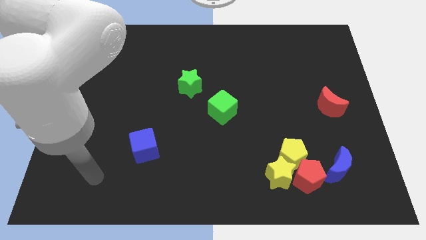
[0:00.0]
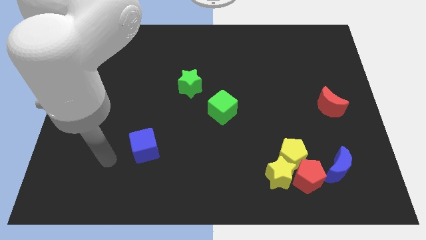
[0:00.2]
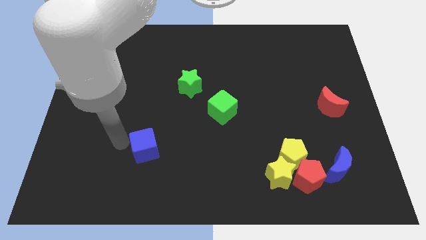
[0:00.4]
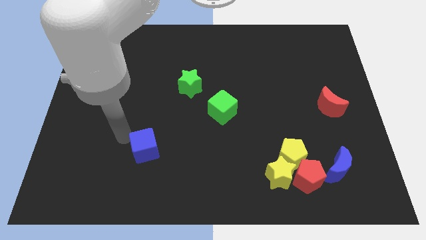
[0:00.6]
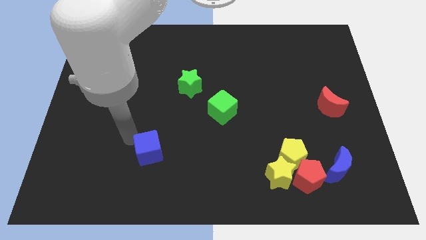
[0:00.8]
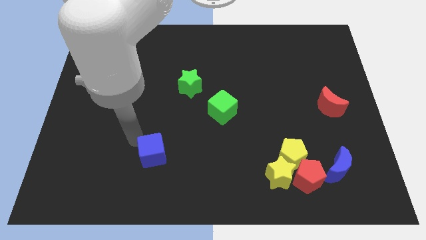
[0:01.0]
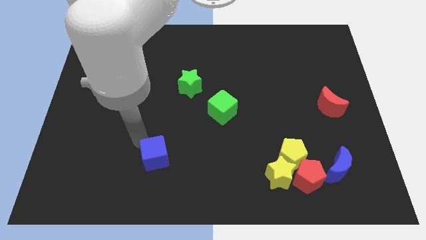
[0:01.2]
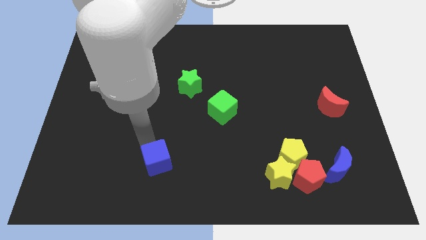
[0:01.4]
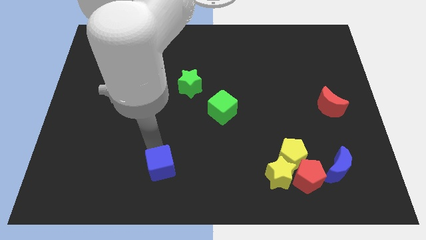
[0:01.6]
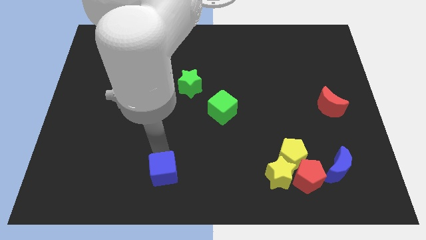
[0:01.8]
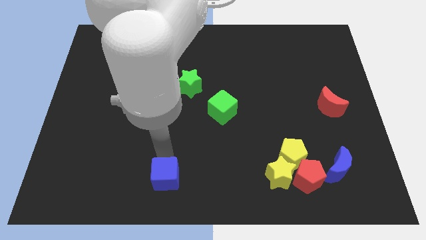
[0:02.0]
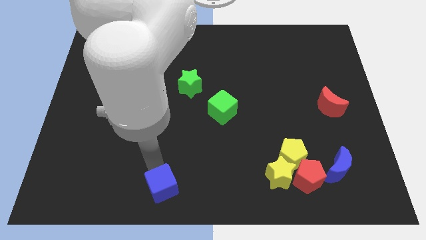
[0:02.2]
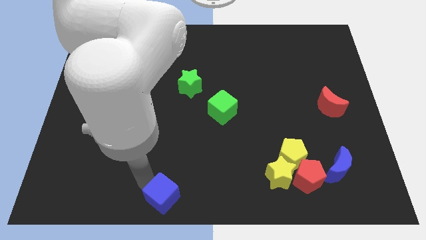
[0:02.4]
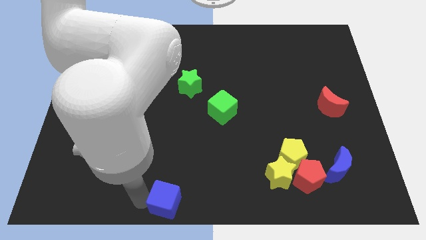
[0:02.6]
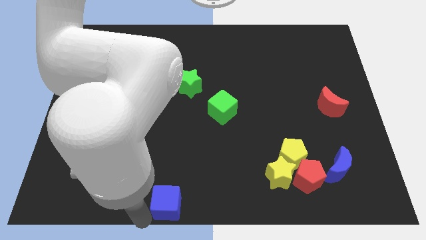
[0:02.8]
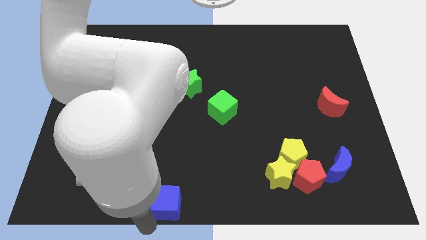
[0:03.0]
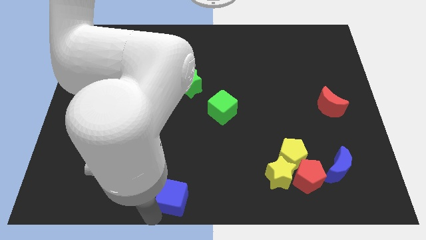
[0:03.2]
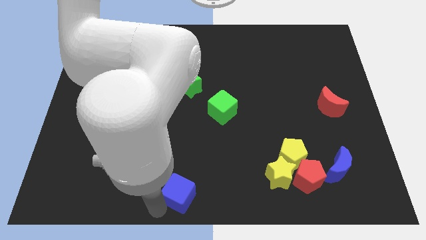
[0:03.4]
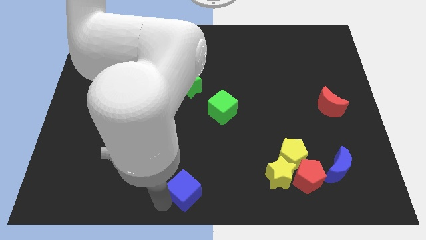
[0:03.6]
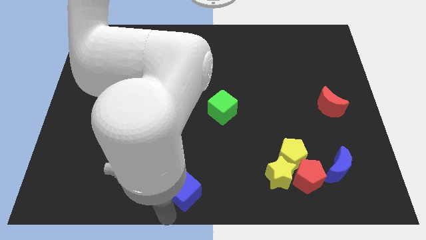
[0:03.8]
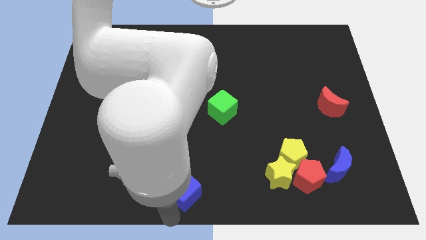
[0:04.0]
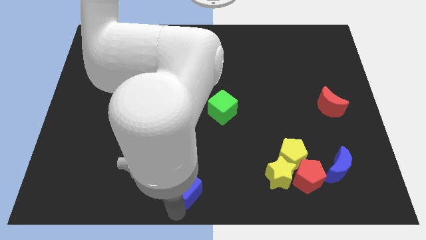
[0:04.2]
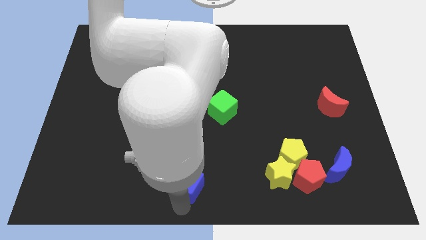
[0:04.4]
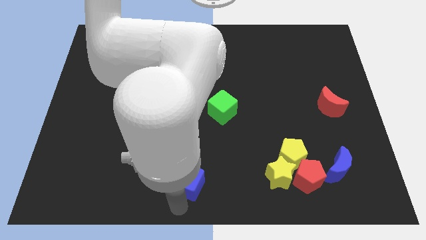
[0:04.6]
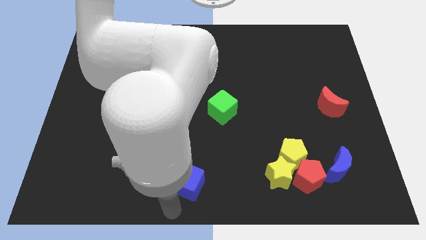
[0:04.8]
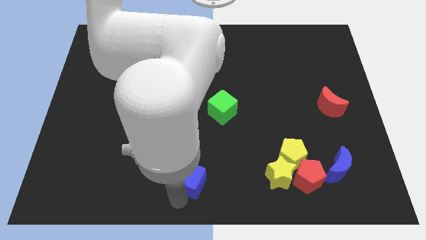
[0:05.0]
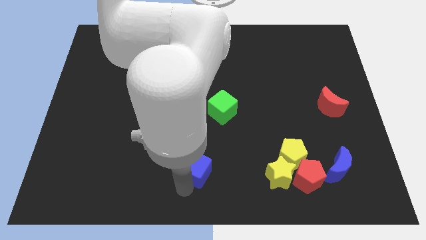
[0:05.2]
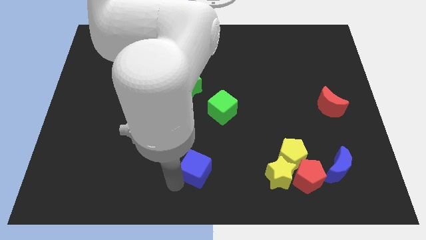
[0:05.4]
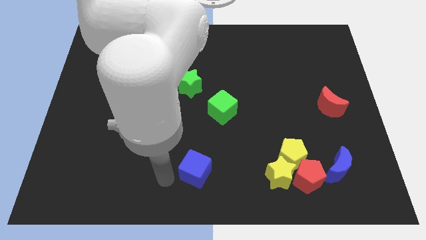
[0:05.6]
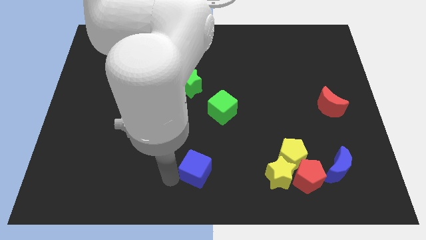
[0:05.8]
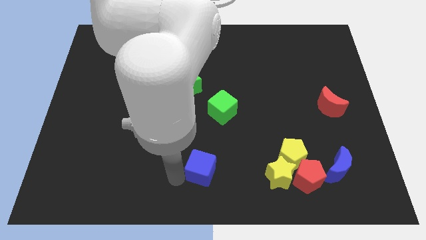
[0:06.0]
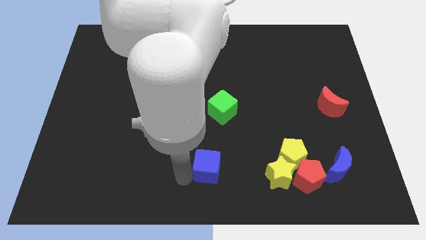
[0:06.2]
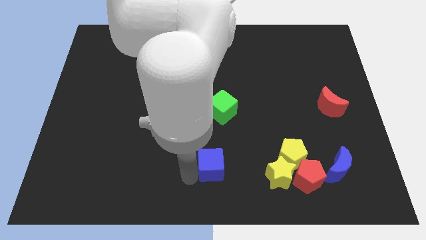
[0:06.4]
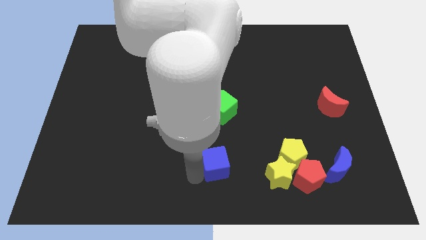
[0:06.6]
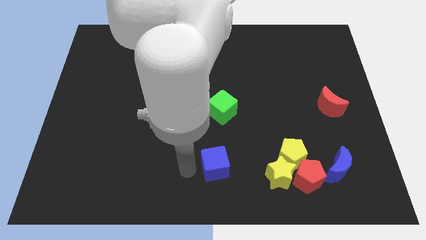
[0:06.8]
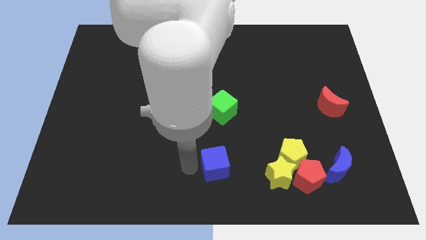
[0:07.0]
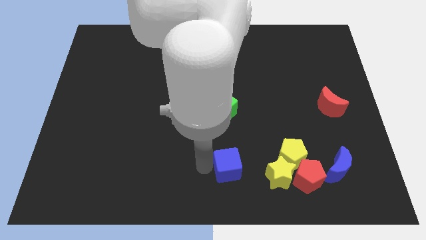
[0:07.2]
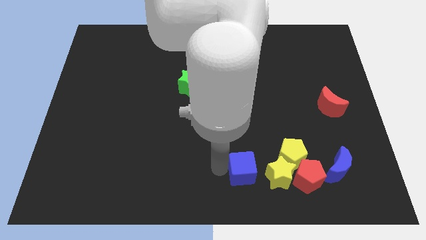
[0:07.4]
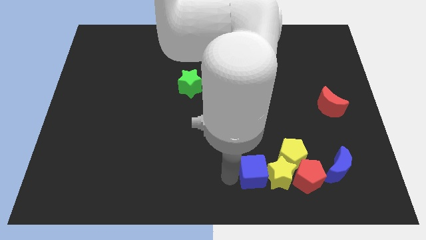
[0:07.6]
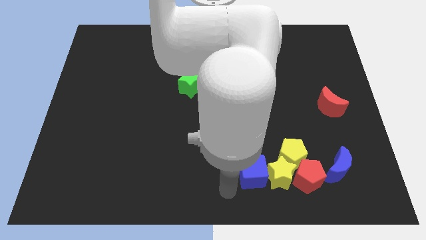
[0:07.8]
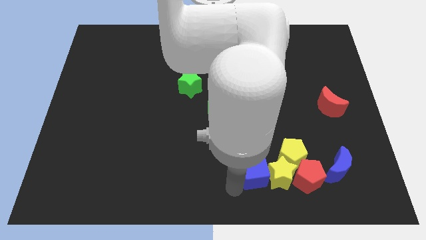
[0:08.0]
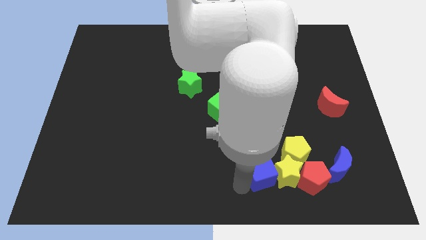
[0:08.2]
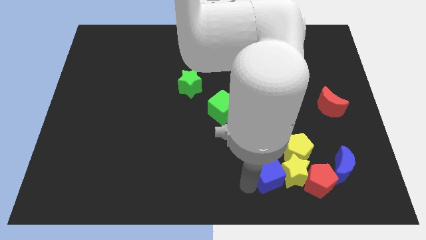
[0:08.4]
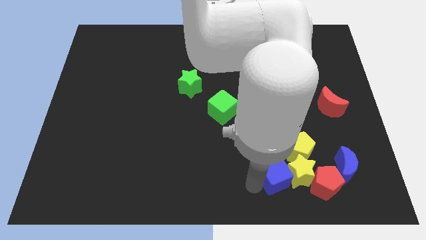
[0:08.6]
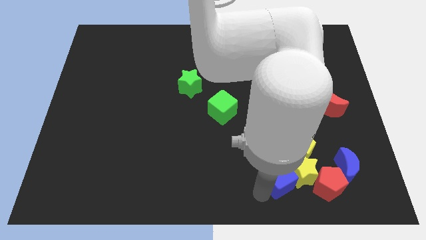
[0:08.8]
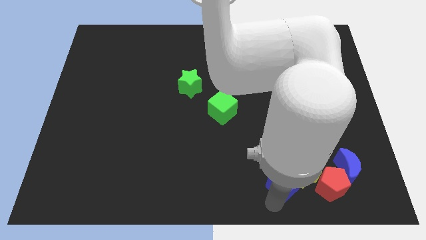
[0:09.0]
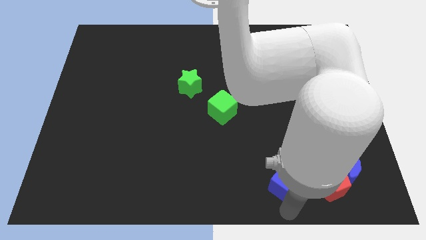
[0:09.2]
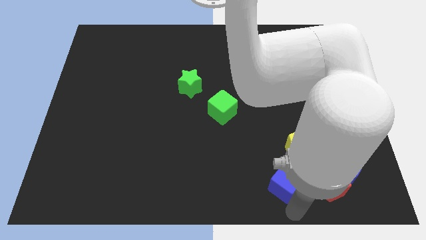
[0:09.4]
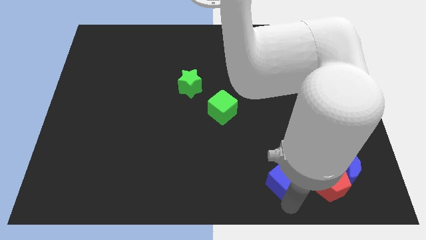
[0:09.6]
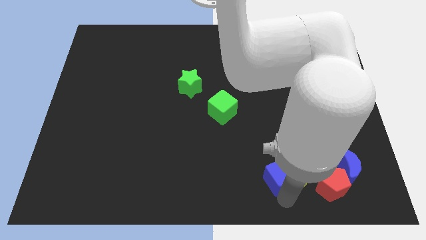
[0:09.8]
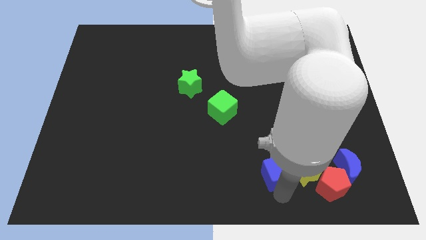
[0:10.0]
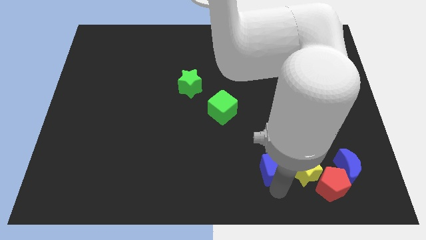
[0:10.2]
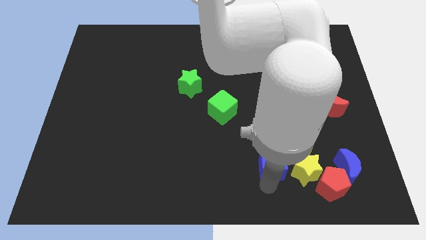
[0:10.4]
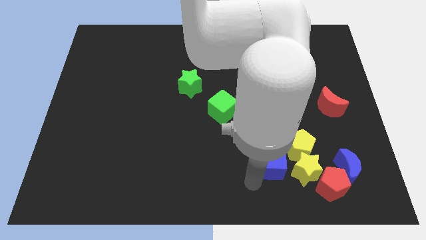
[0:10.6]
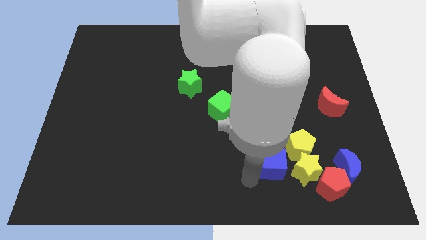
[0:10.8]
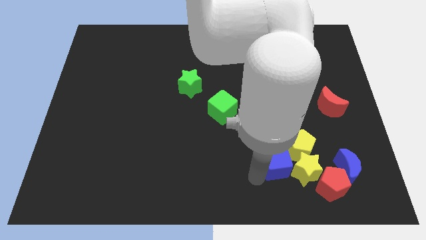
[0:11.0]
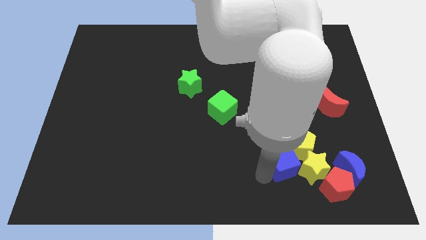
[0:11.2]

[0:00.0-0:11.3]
push the blue cube towards the yellow pentagon

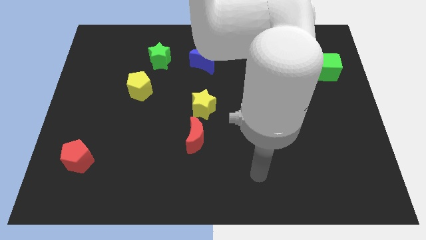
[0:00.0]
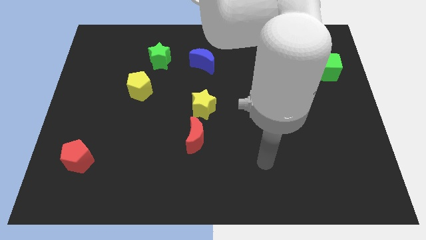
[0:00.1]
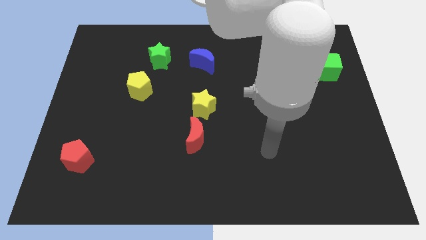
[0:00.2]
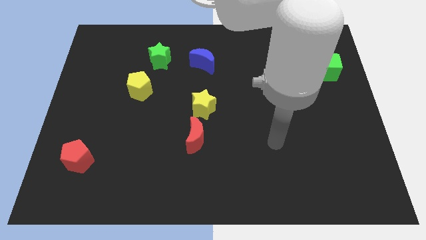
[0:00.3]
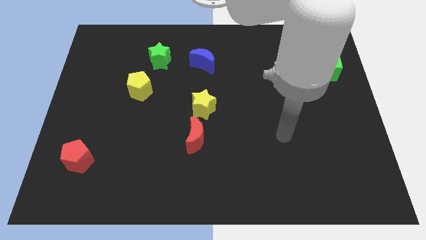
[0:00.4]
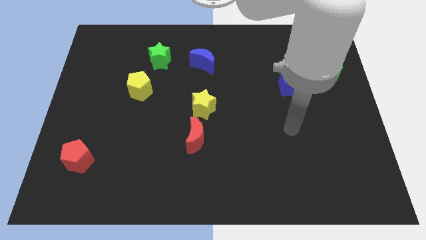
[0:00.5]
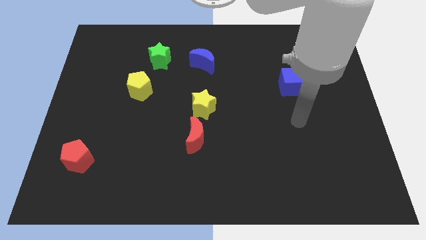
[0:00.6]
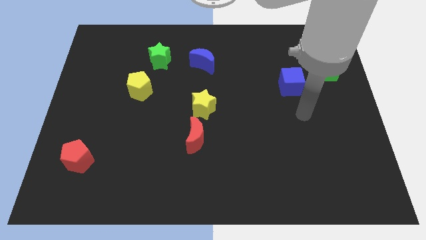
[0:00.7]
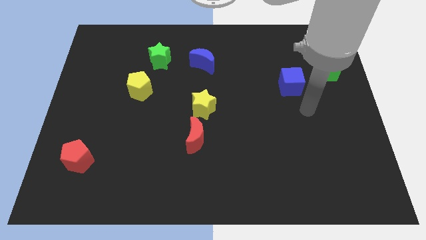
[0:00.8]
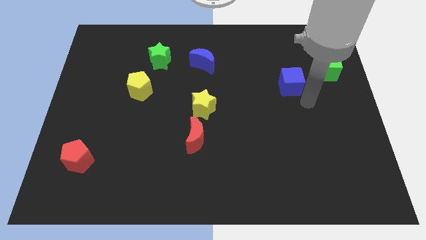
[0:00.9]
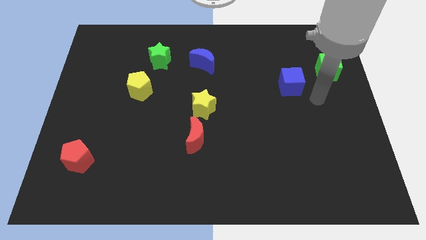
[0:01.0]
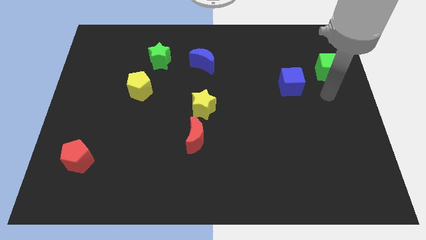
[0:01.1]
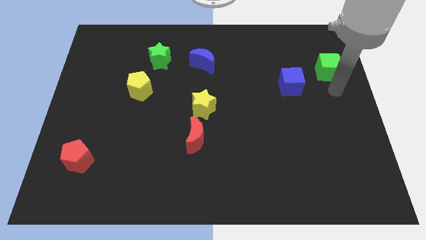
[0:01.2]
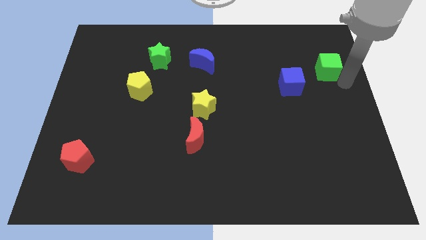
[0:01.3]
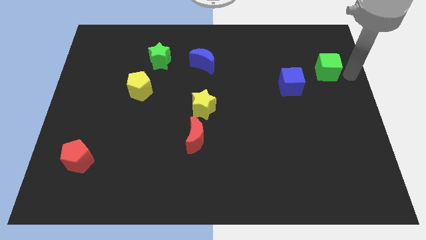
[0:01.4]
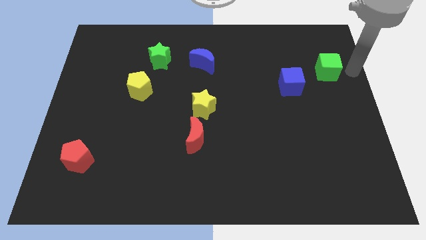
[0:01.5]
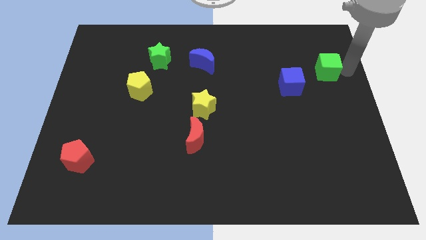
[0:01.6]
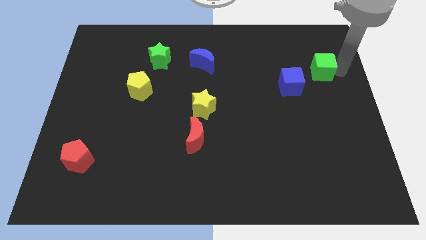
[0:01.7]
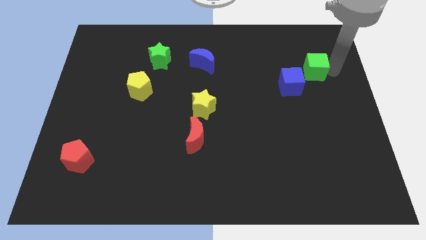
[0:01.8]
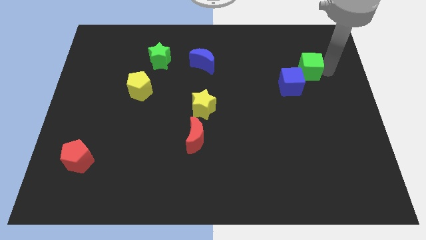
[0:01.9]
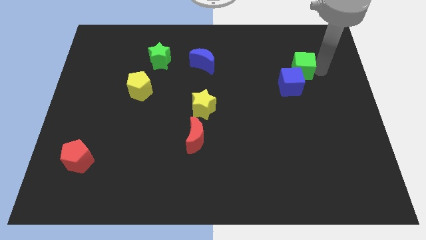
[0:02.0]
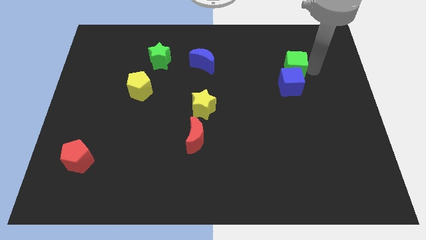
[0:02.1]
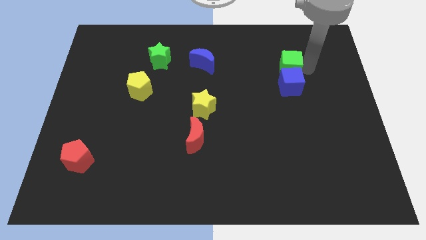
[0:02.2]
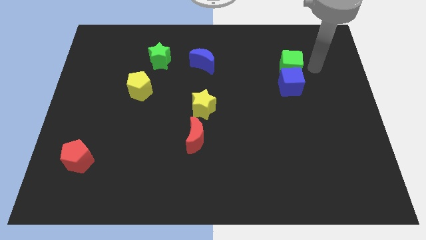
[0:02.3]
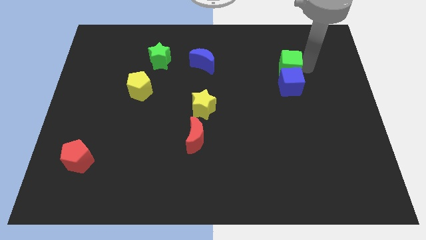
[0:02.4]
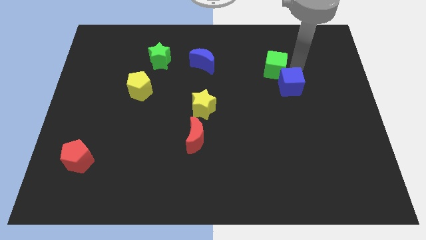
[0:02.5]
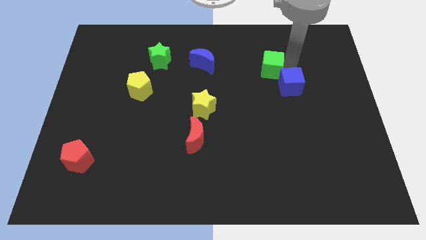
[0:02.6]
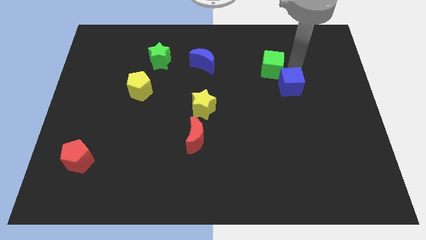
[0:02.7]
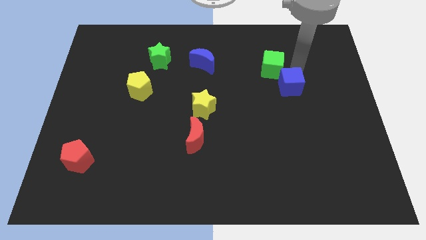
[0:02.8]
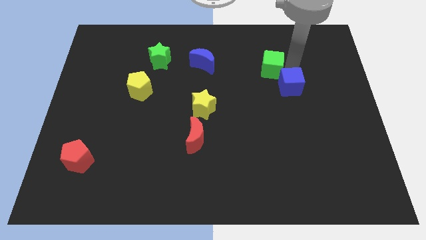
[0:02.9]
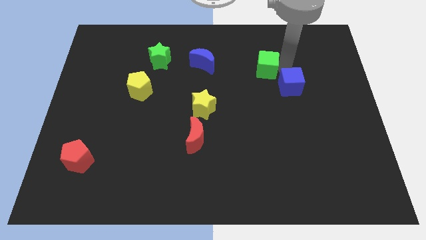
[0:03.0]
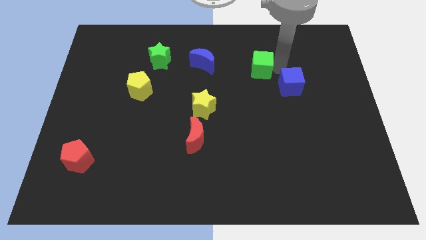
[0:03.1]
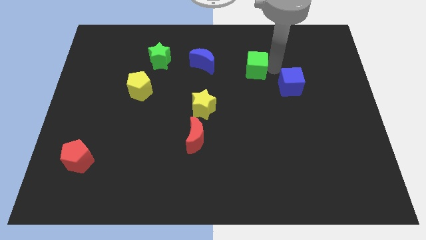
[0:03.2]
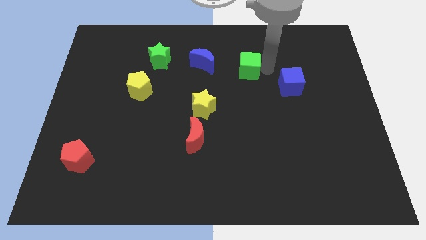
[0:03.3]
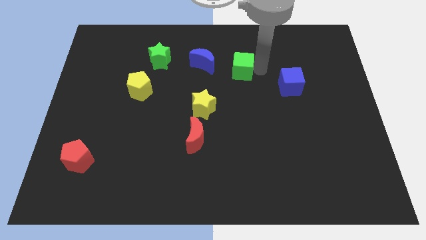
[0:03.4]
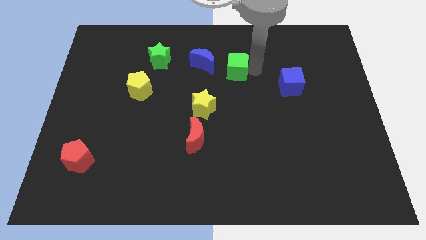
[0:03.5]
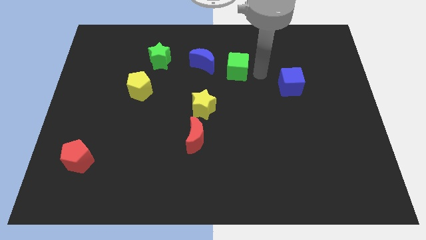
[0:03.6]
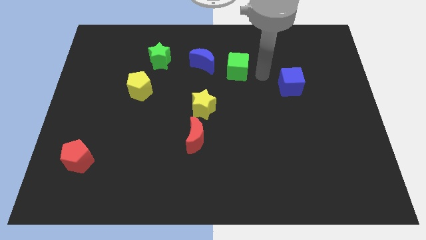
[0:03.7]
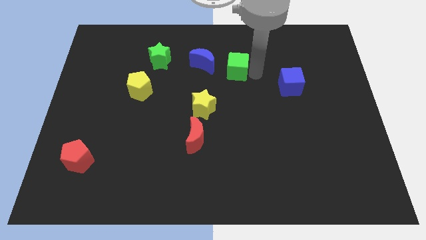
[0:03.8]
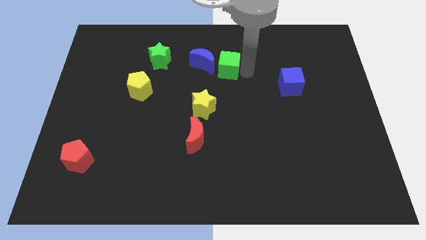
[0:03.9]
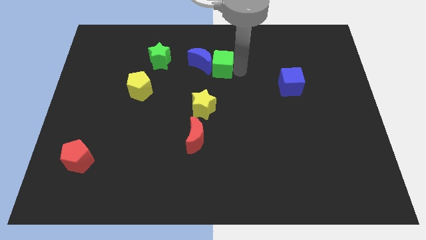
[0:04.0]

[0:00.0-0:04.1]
push the green cube next to the blue moon
